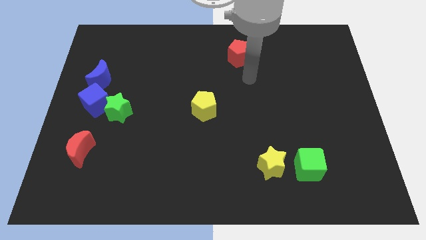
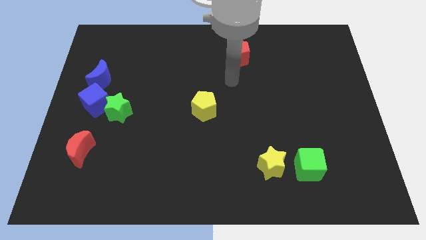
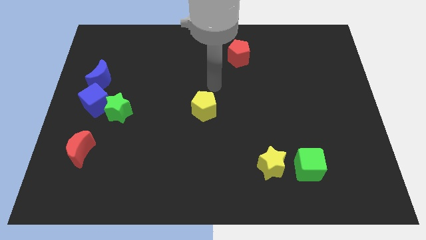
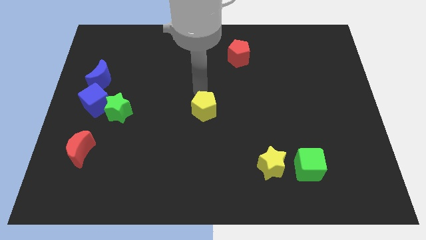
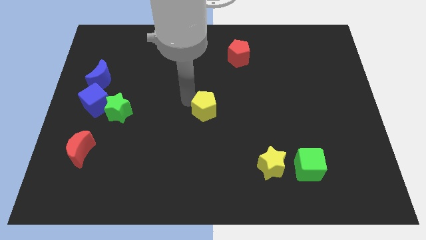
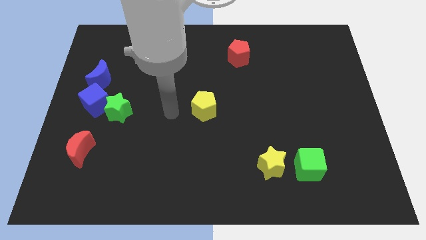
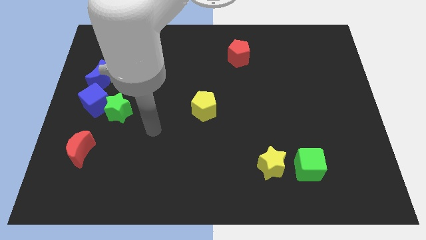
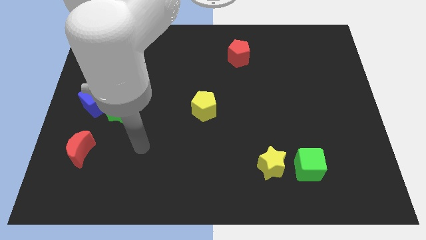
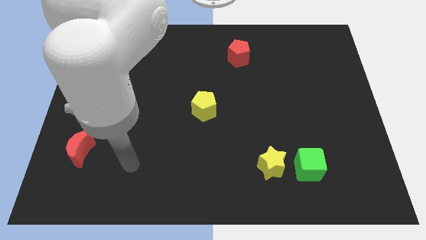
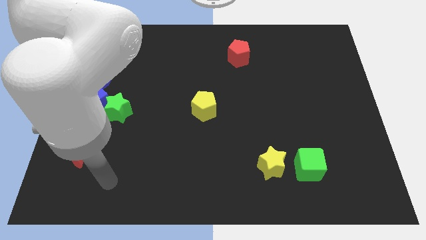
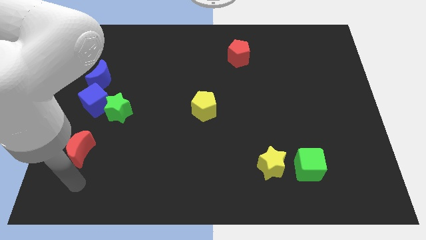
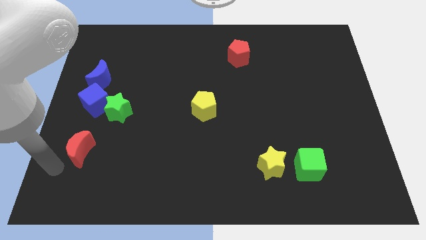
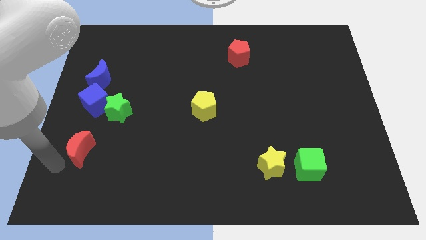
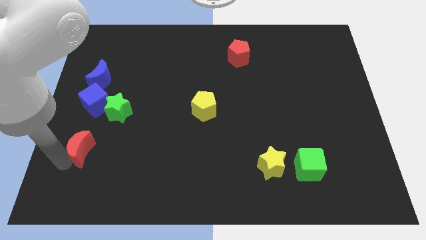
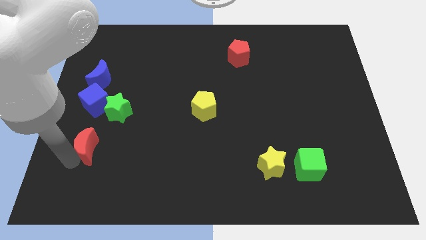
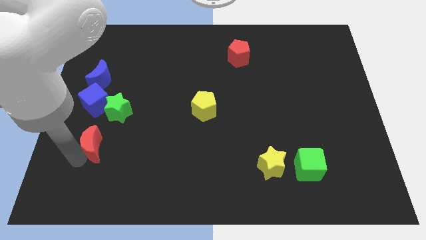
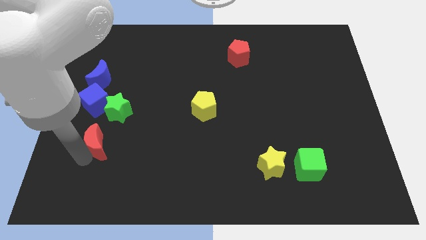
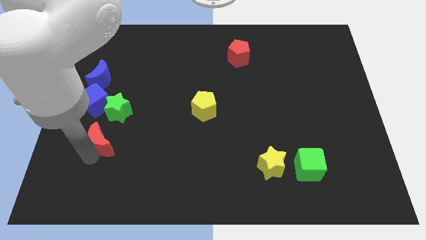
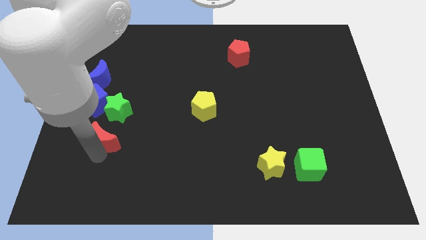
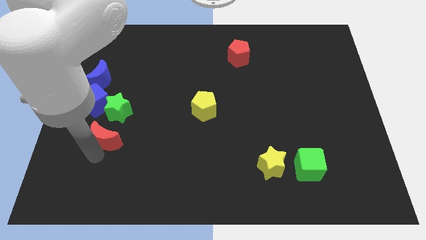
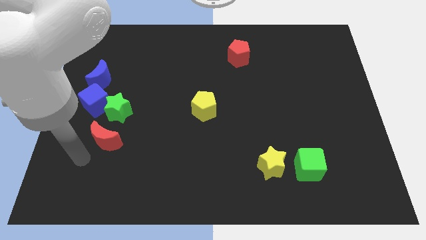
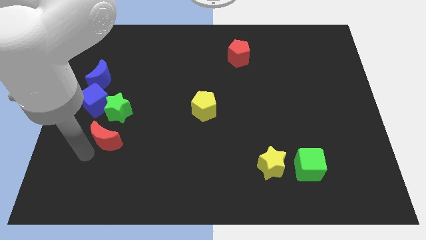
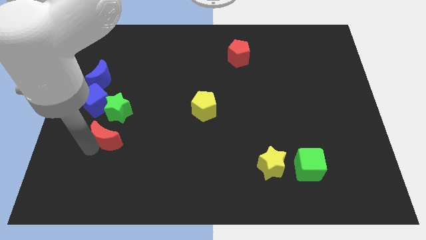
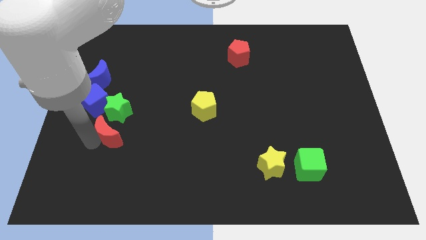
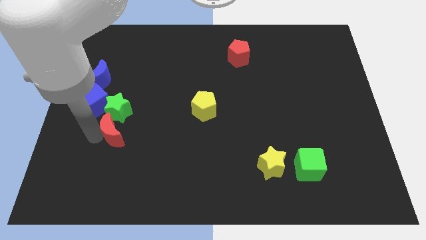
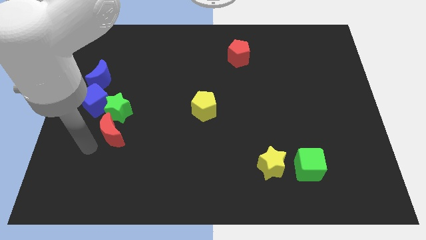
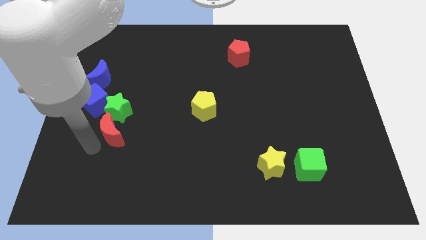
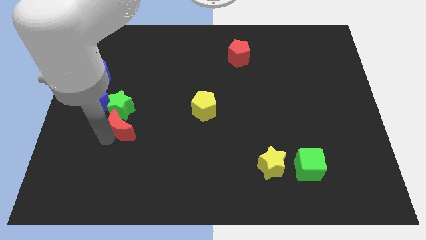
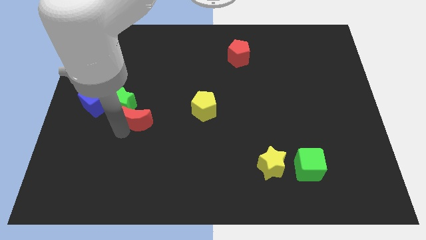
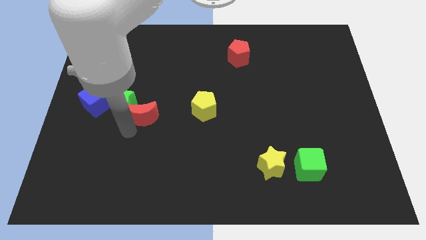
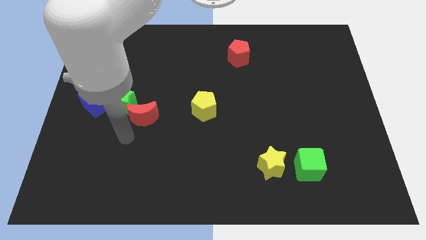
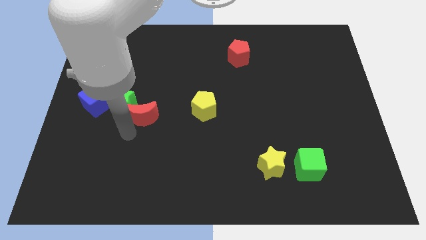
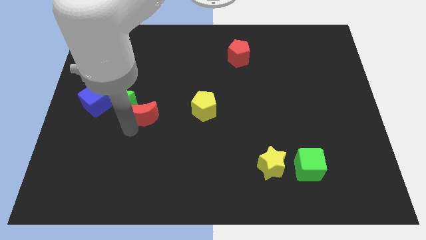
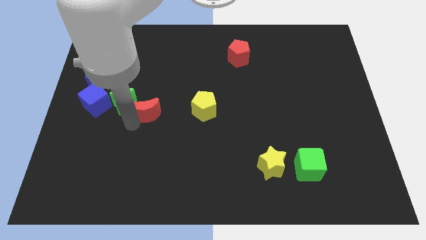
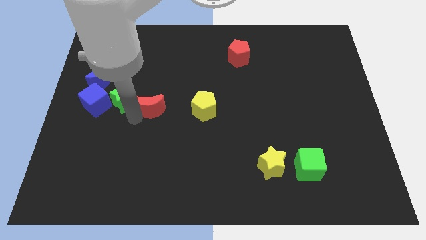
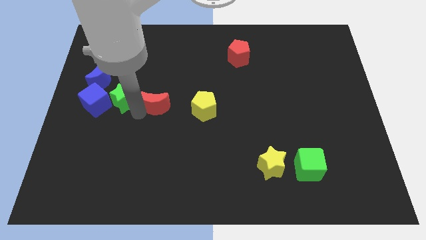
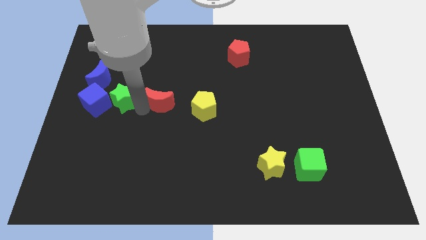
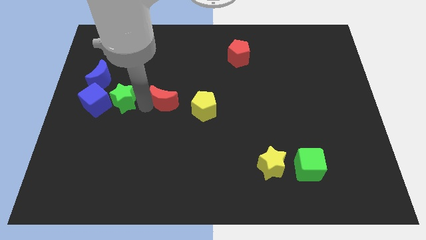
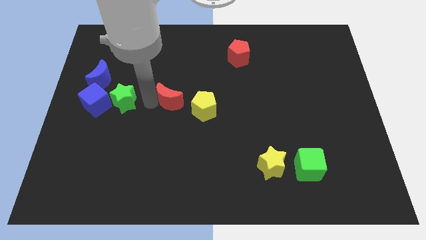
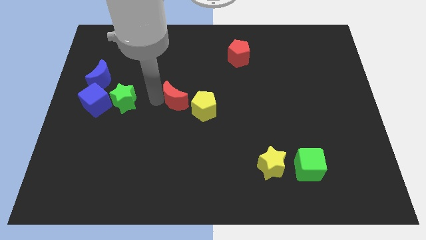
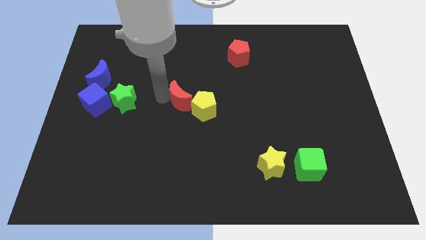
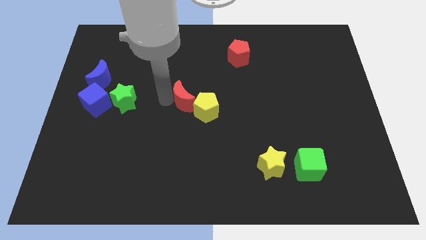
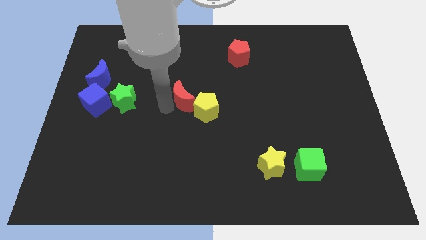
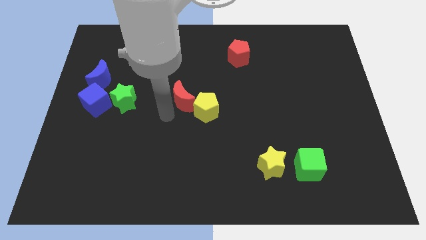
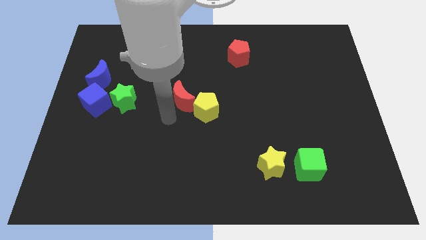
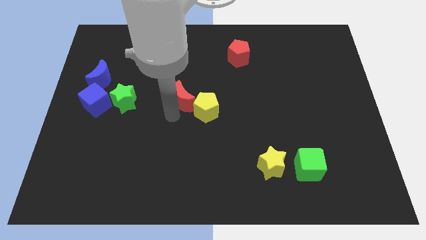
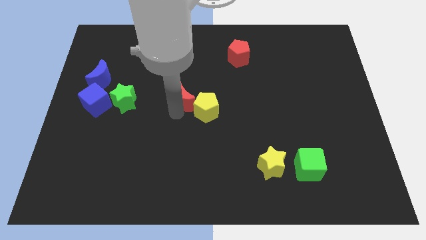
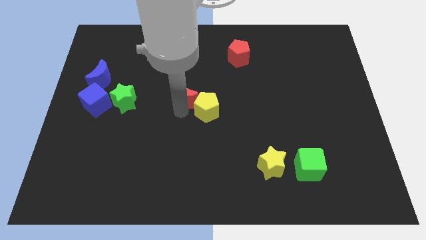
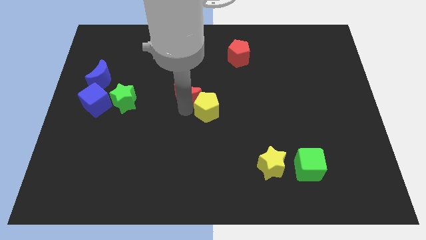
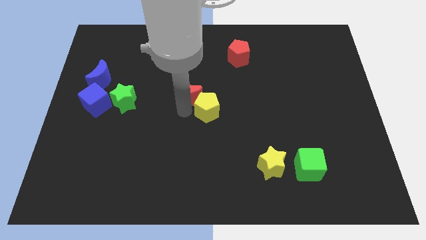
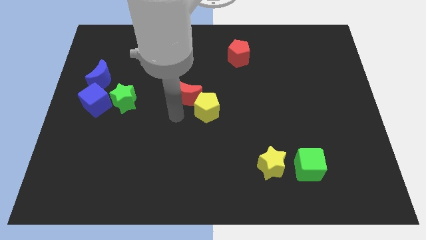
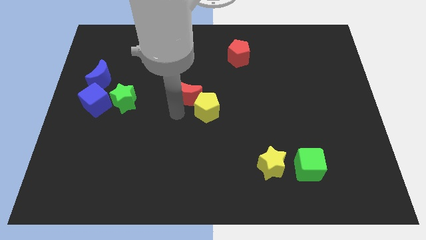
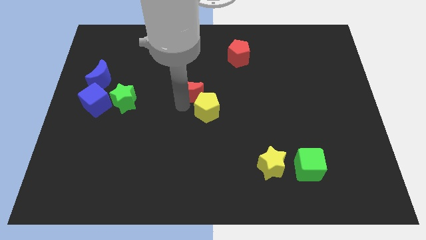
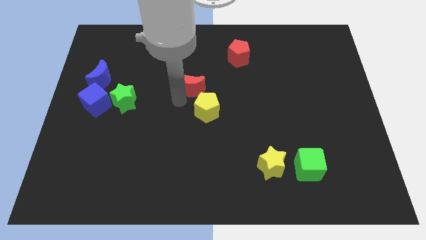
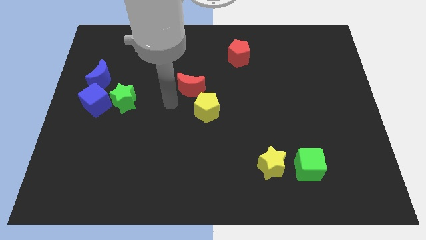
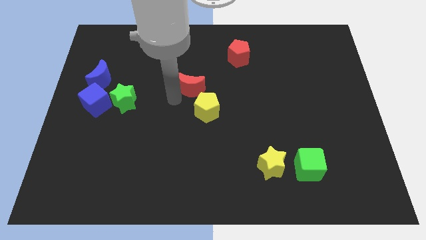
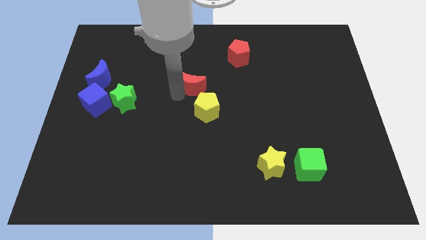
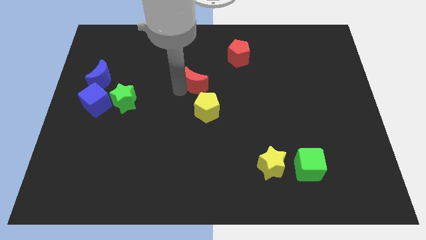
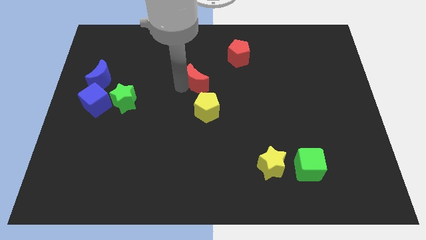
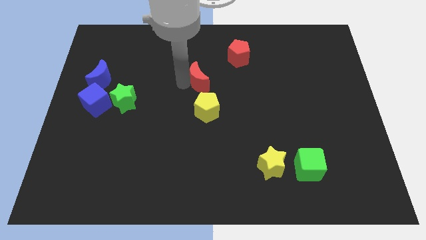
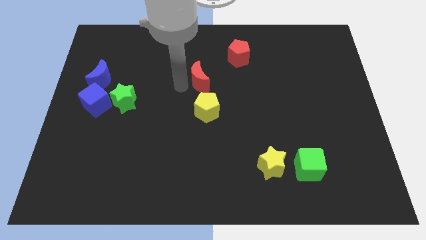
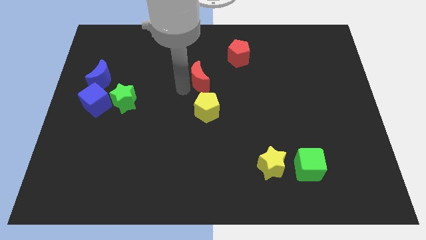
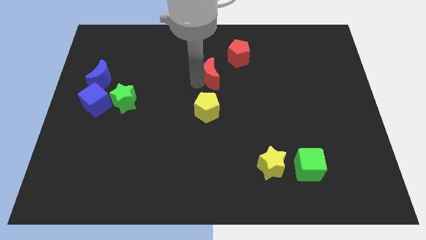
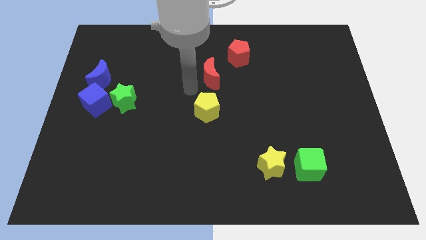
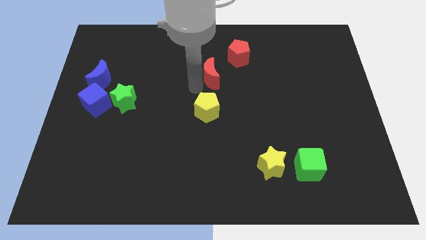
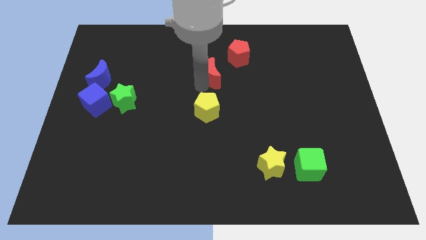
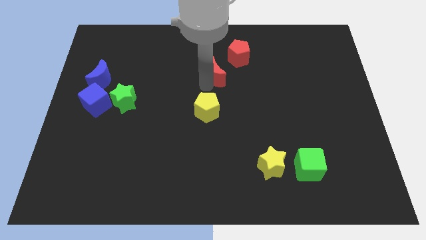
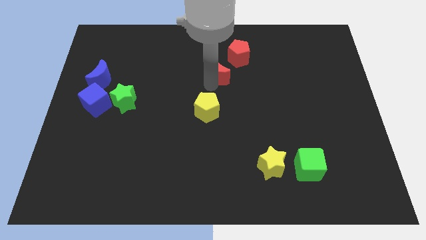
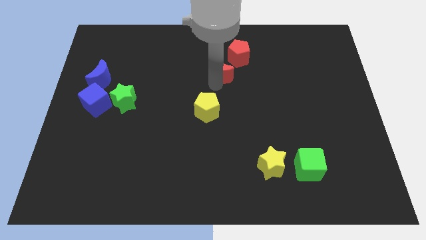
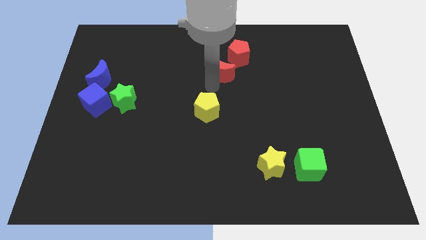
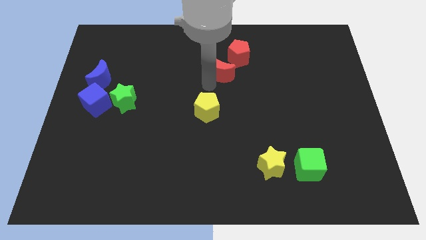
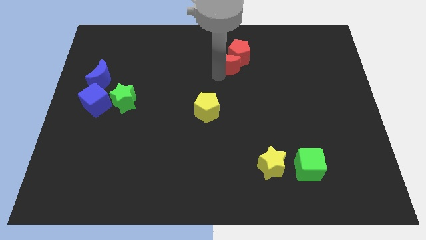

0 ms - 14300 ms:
put the red moon close to the red pentagon

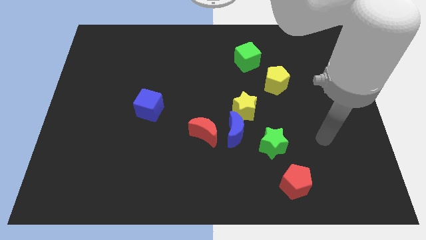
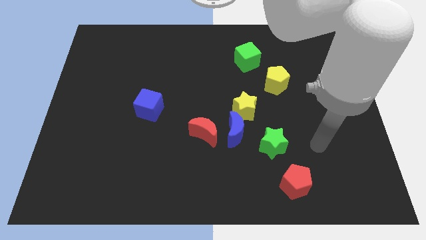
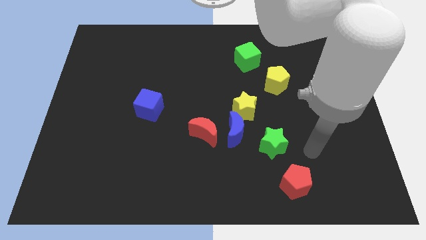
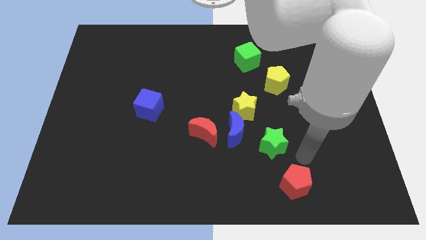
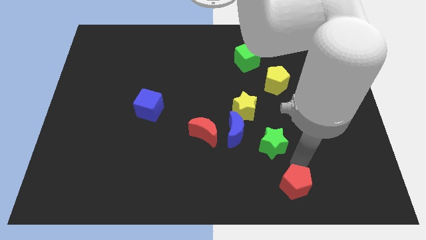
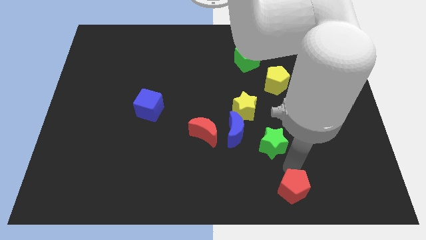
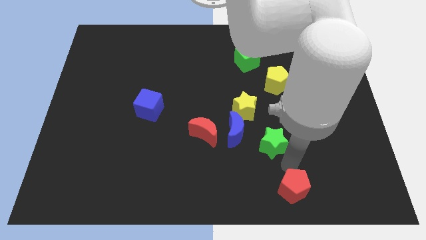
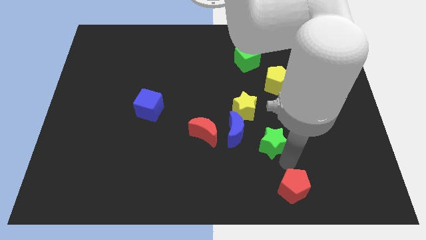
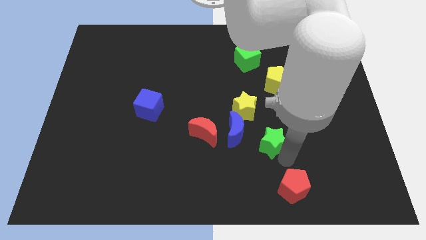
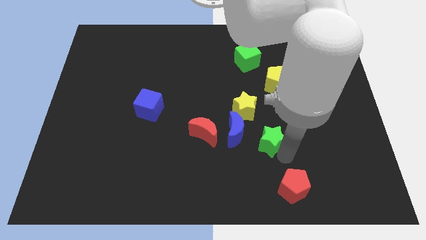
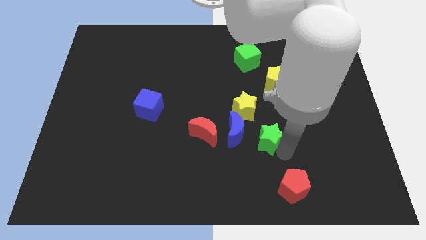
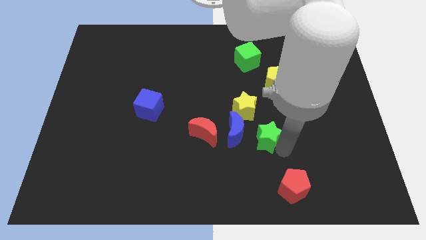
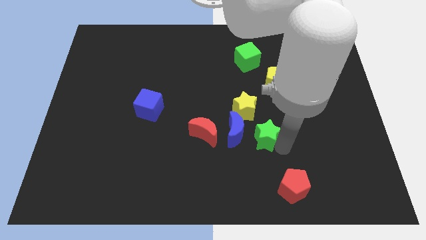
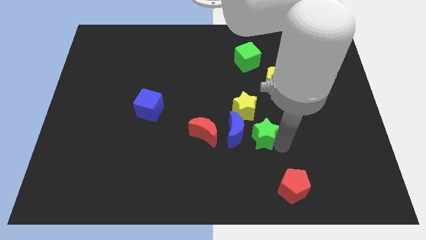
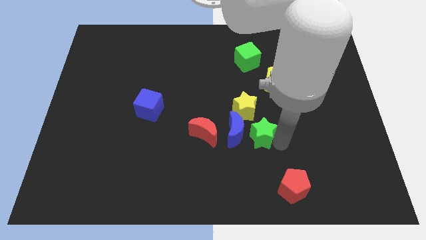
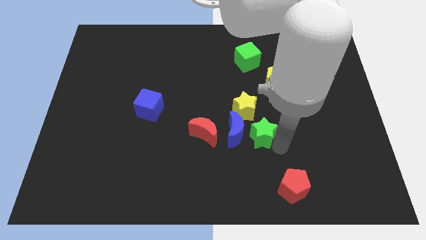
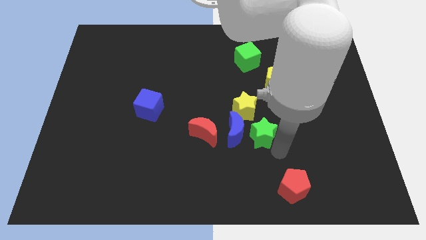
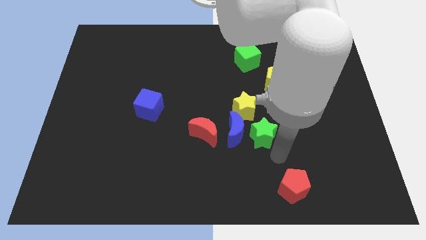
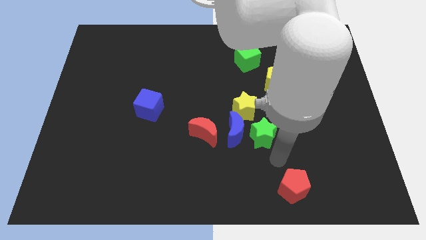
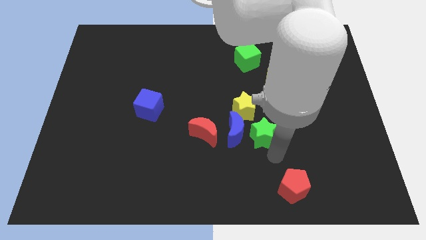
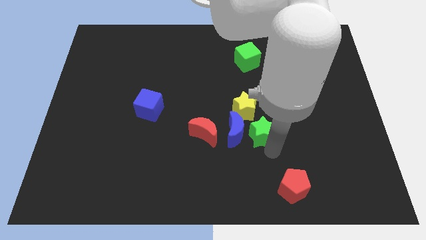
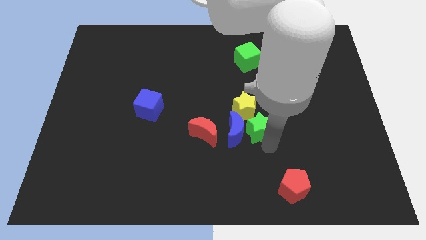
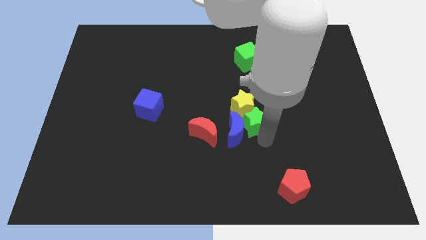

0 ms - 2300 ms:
push the green star next to the yellow star
